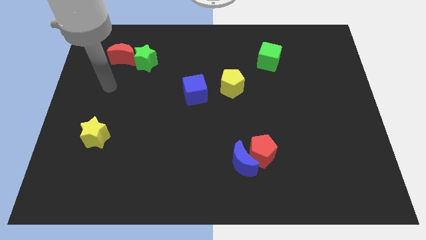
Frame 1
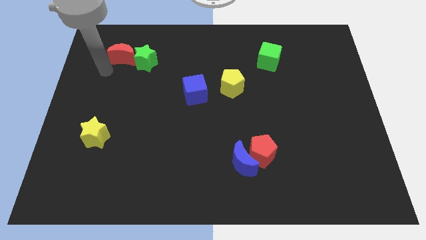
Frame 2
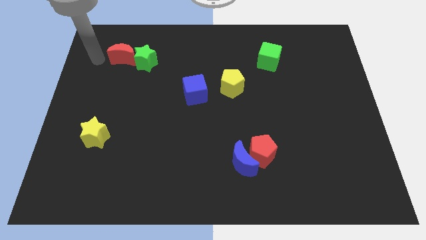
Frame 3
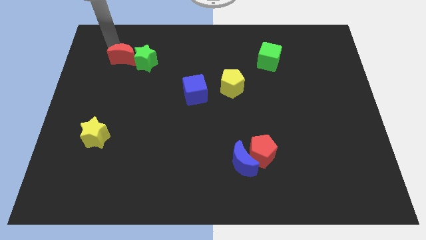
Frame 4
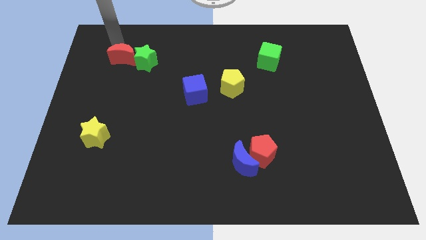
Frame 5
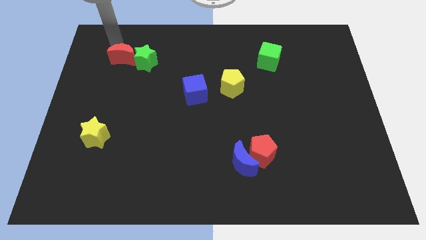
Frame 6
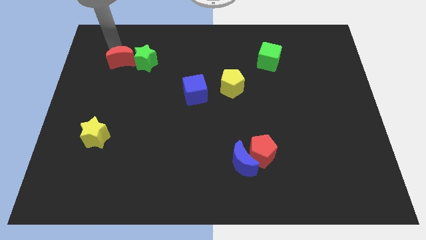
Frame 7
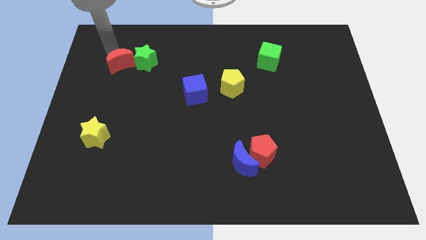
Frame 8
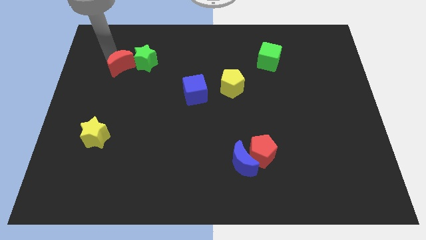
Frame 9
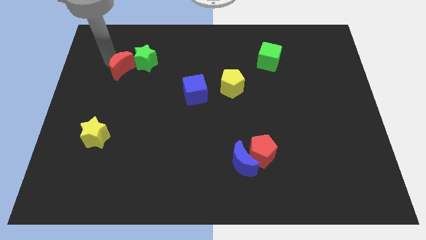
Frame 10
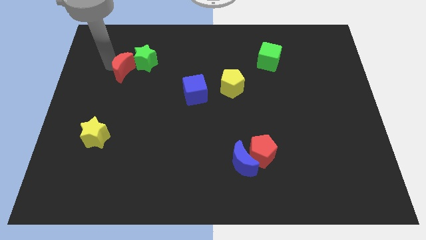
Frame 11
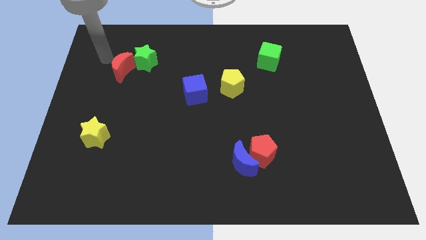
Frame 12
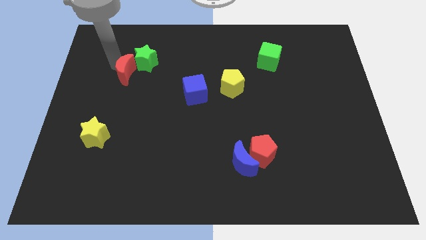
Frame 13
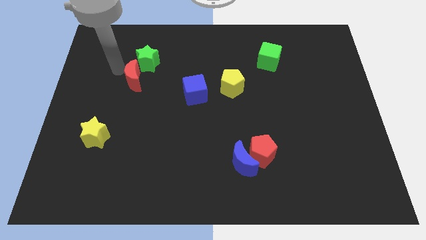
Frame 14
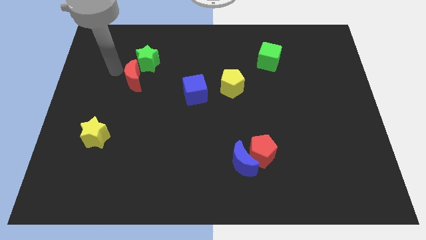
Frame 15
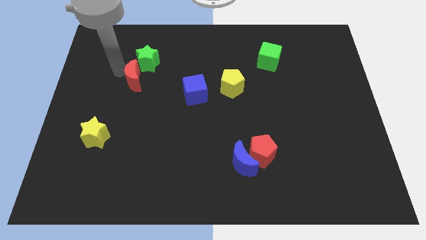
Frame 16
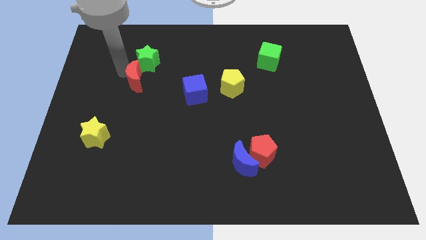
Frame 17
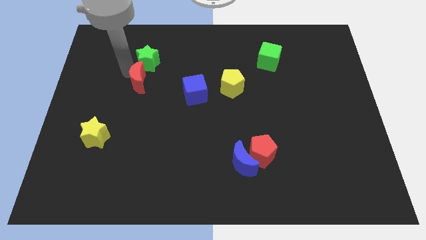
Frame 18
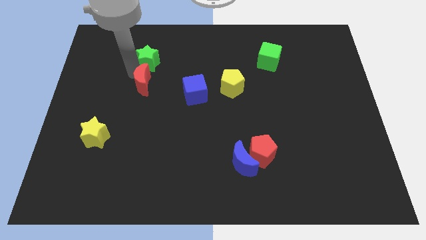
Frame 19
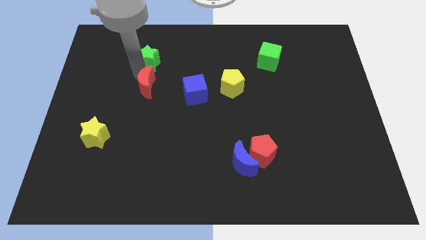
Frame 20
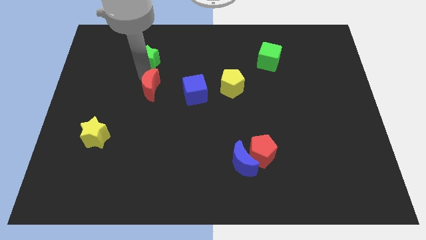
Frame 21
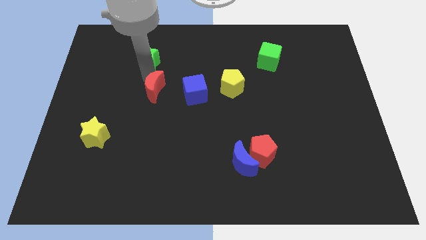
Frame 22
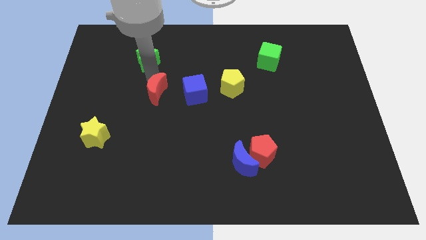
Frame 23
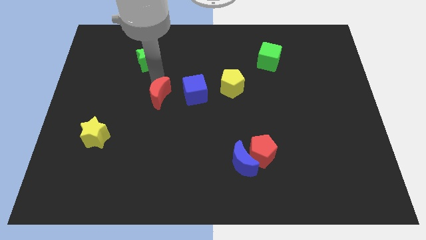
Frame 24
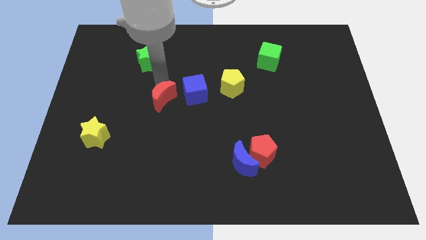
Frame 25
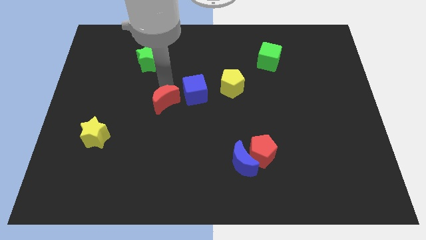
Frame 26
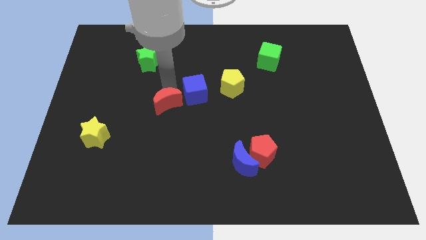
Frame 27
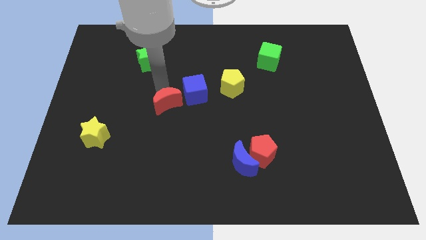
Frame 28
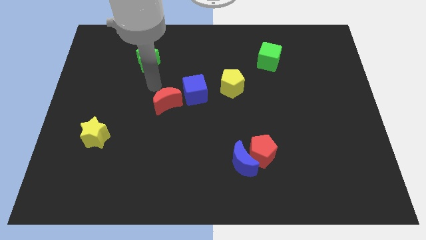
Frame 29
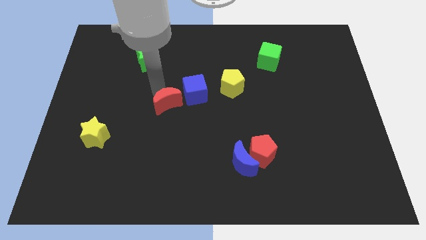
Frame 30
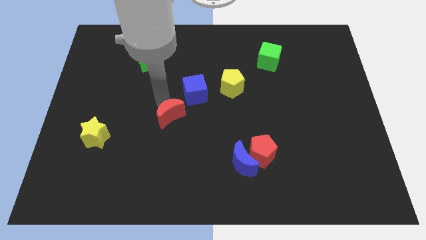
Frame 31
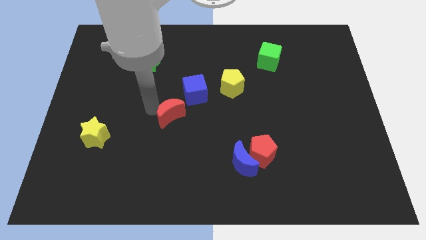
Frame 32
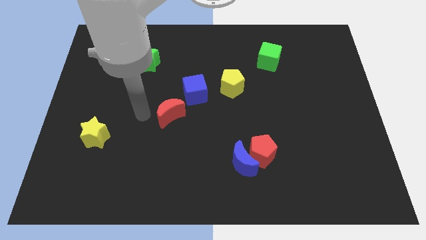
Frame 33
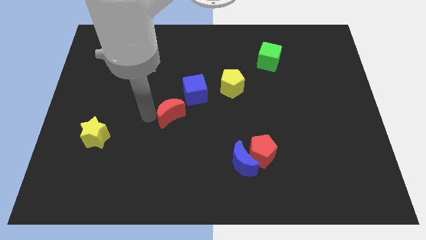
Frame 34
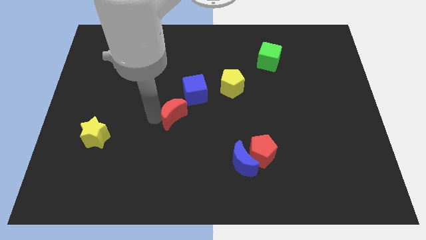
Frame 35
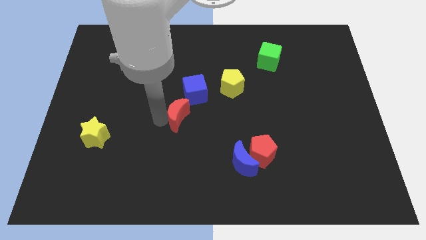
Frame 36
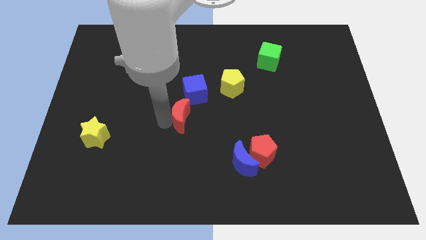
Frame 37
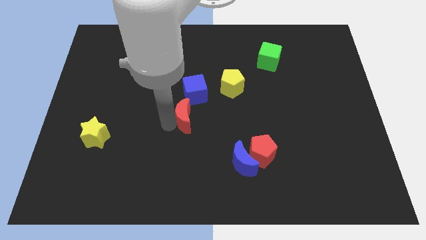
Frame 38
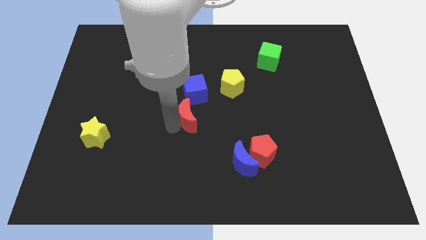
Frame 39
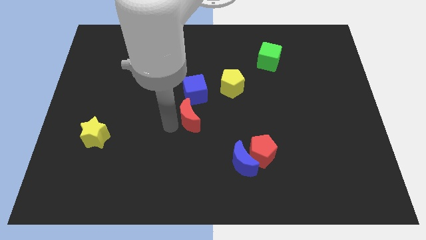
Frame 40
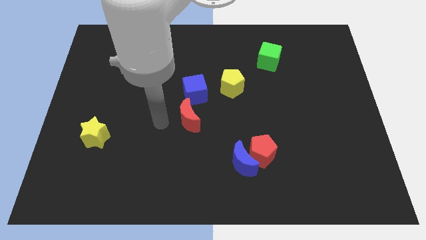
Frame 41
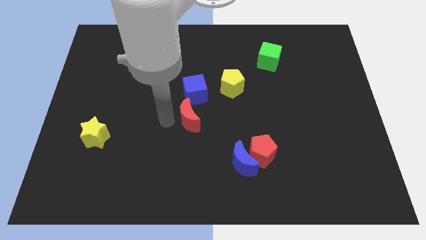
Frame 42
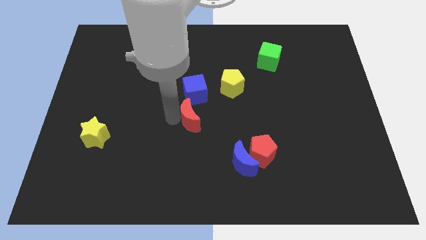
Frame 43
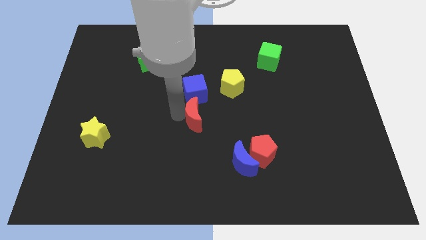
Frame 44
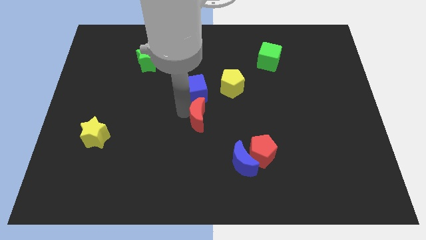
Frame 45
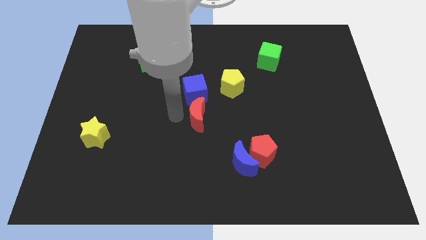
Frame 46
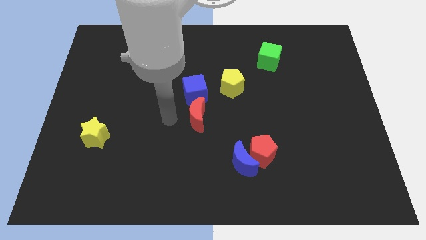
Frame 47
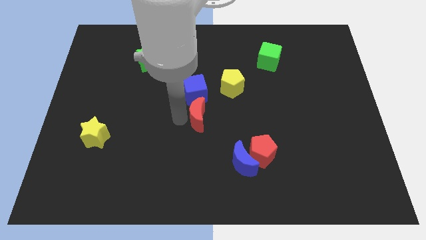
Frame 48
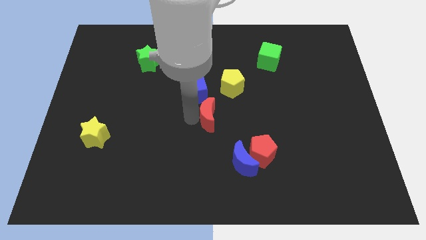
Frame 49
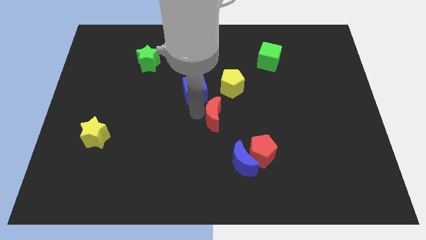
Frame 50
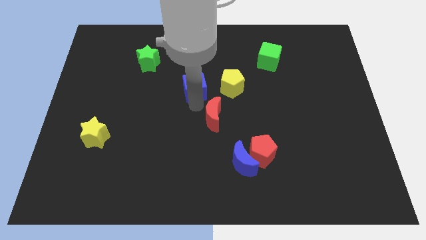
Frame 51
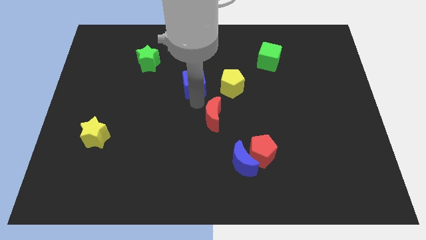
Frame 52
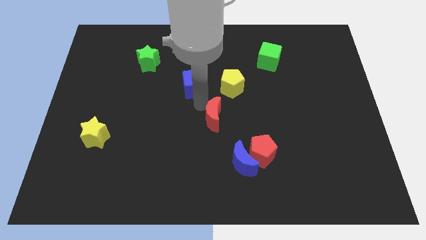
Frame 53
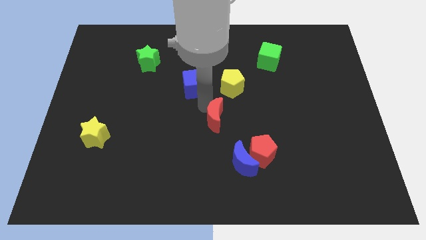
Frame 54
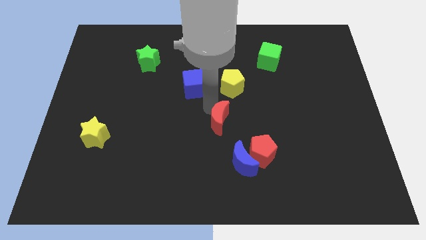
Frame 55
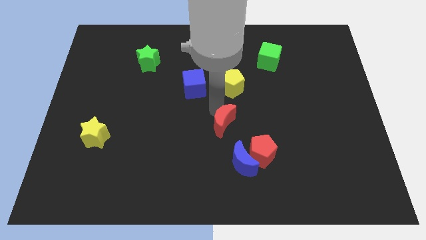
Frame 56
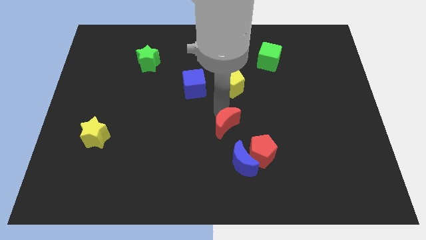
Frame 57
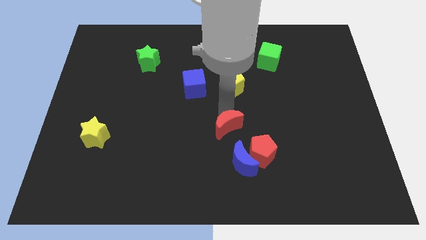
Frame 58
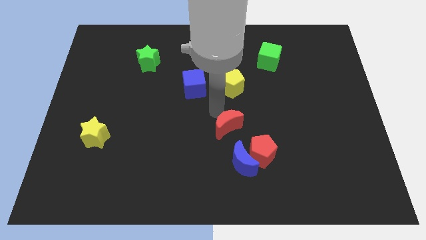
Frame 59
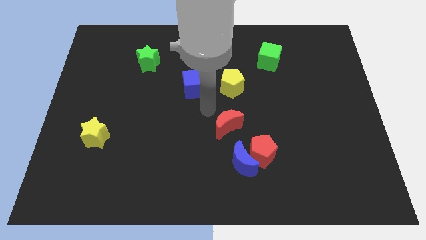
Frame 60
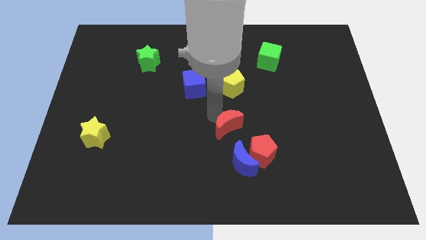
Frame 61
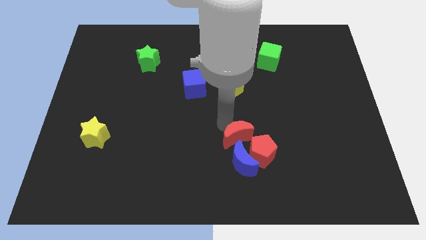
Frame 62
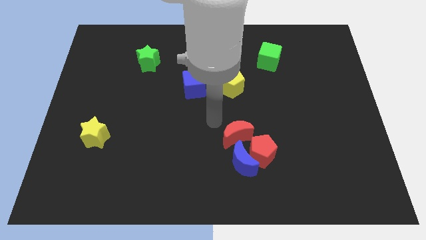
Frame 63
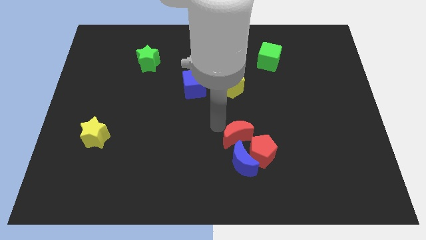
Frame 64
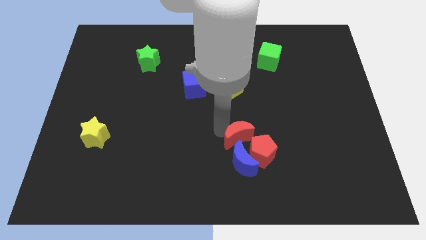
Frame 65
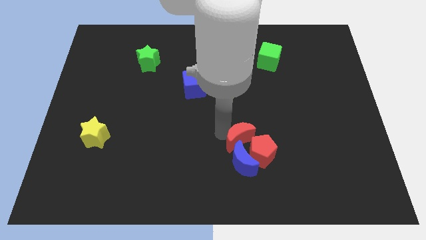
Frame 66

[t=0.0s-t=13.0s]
push the red moon close to the red pentagon

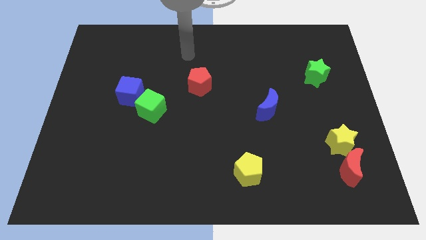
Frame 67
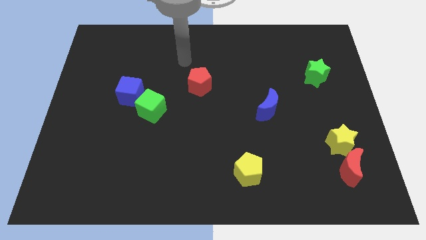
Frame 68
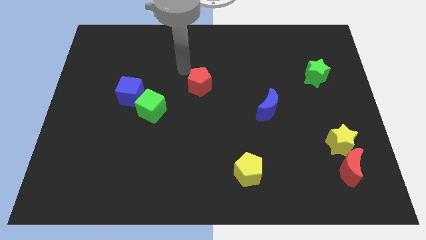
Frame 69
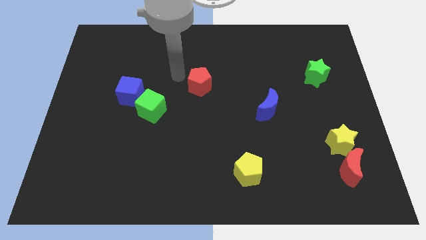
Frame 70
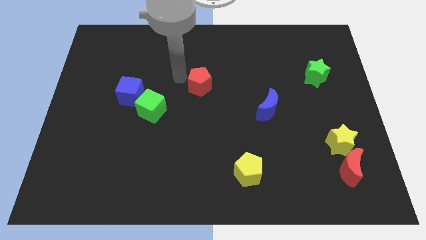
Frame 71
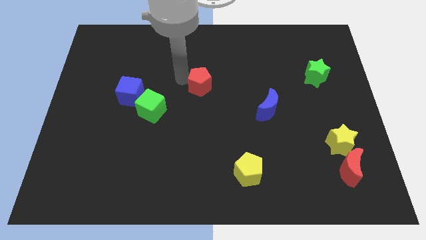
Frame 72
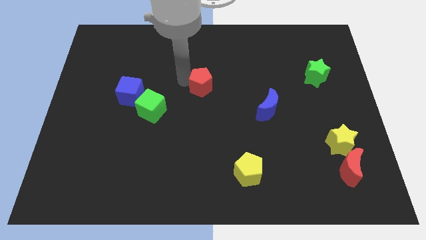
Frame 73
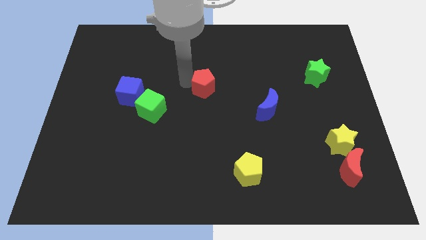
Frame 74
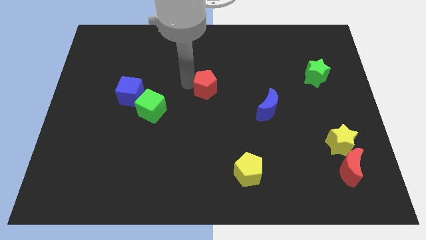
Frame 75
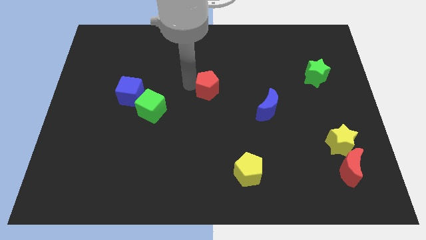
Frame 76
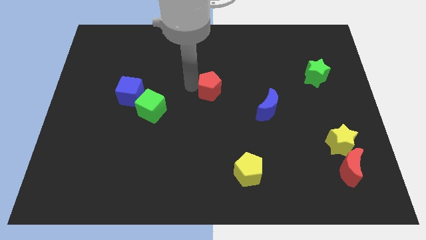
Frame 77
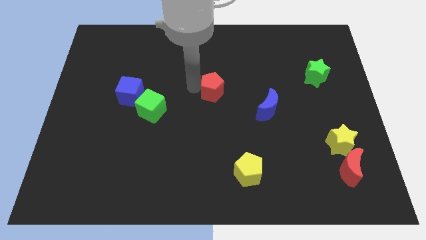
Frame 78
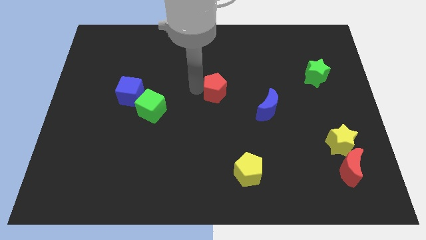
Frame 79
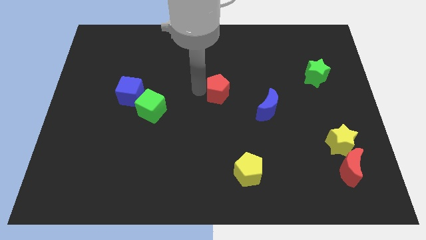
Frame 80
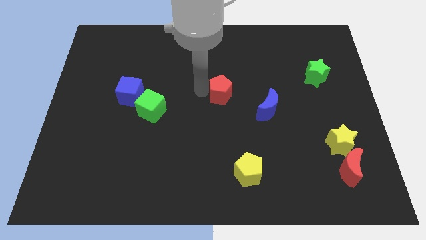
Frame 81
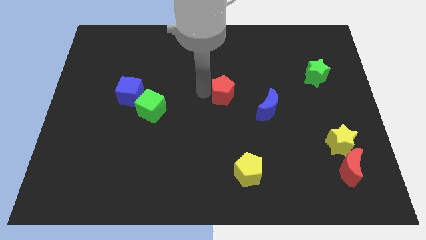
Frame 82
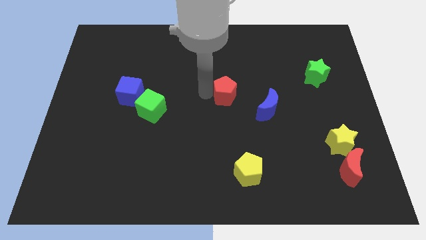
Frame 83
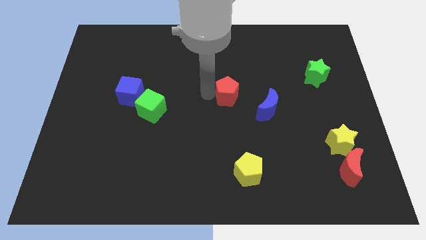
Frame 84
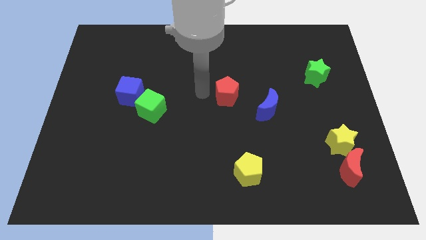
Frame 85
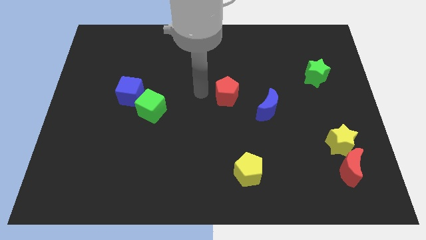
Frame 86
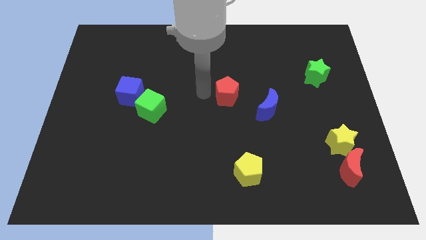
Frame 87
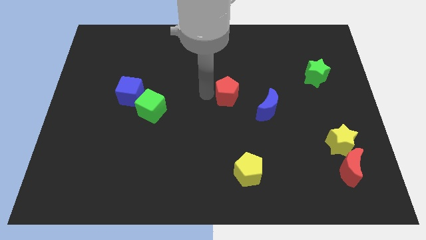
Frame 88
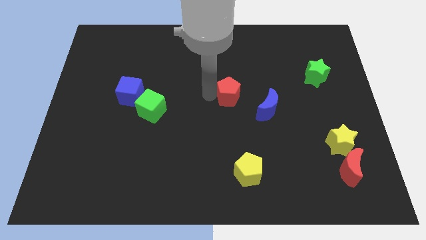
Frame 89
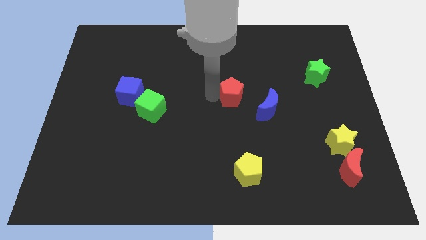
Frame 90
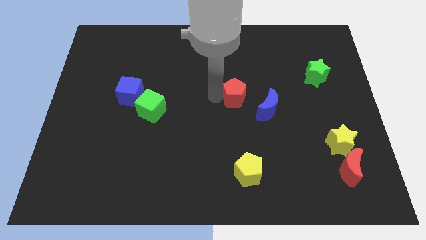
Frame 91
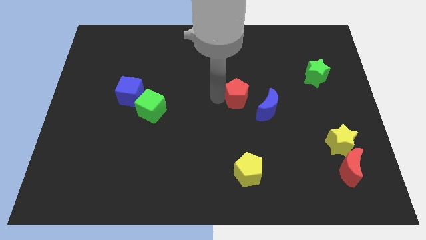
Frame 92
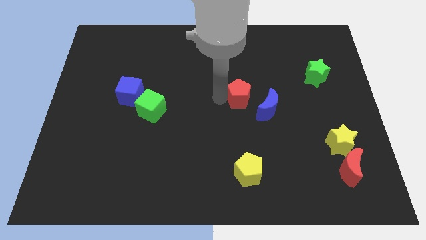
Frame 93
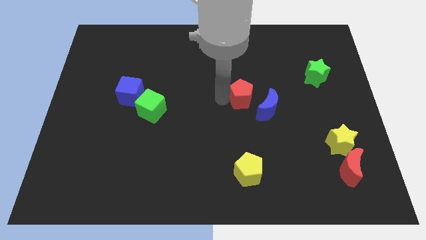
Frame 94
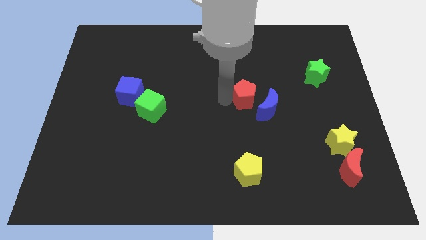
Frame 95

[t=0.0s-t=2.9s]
push the red pentagon next to the blue moon
